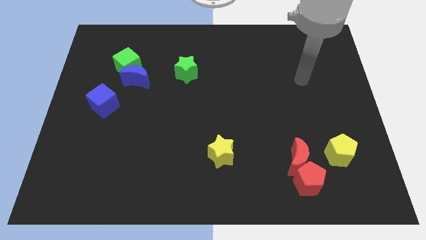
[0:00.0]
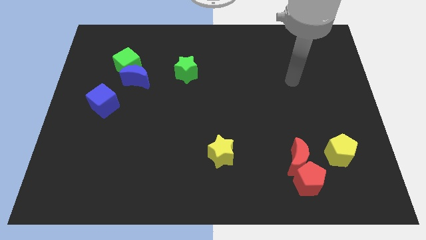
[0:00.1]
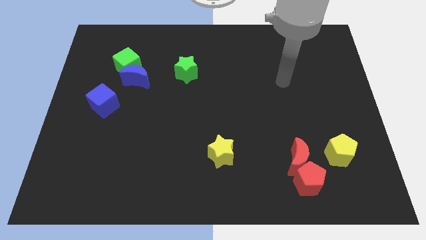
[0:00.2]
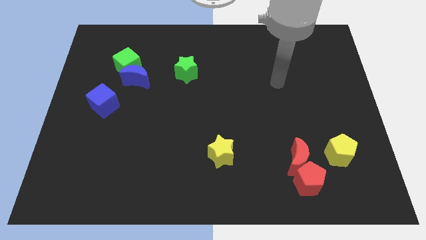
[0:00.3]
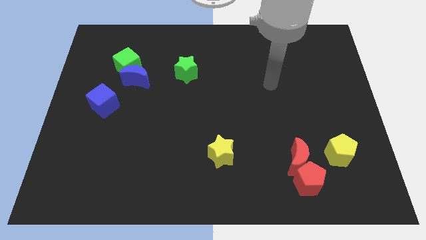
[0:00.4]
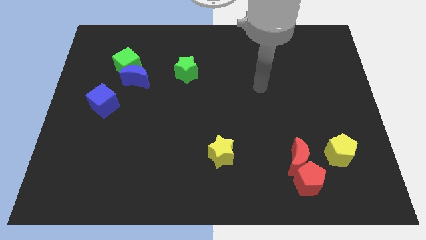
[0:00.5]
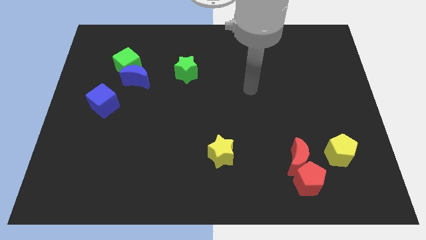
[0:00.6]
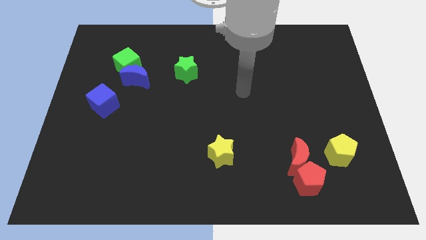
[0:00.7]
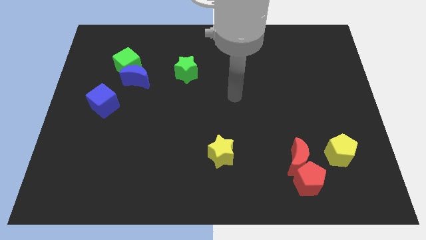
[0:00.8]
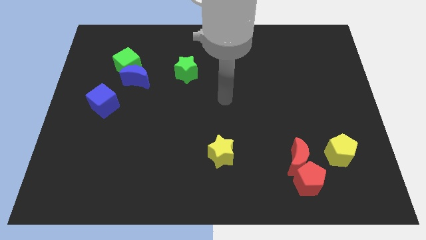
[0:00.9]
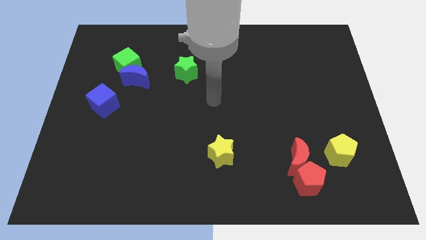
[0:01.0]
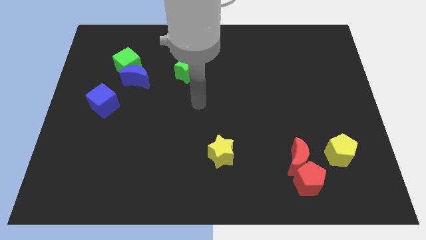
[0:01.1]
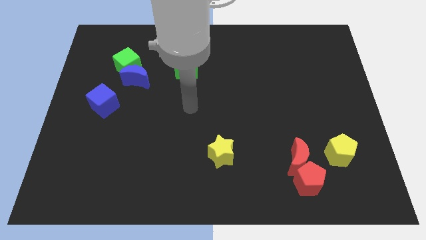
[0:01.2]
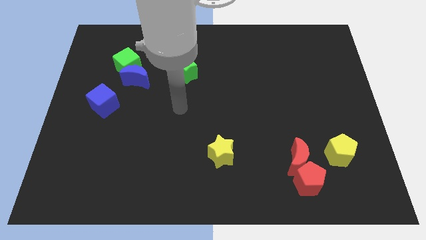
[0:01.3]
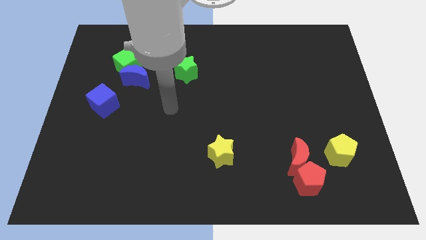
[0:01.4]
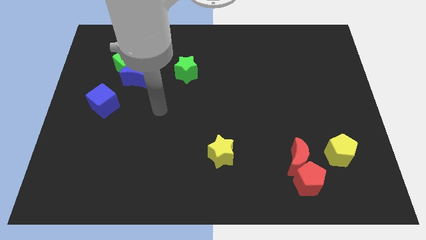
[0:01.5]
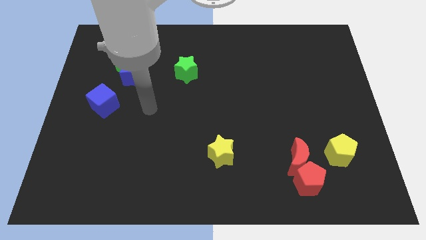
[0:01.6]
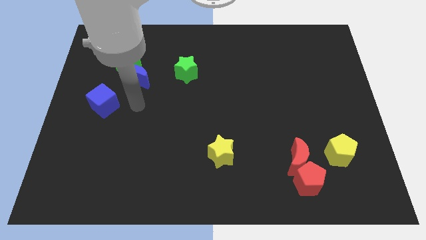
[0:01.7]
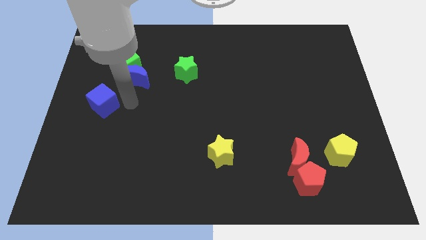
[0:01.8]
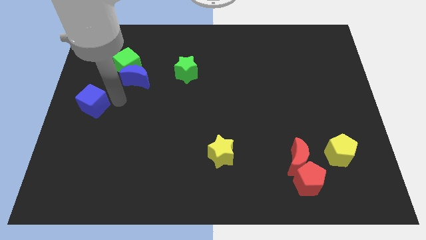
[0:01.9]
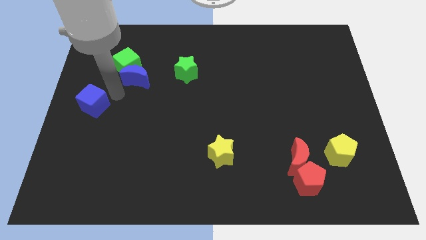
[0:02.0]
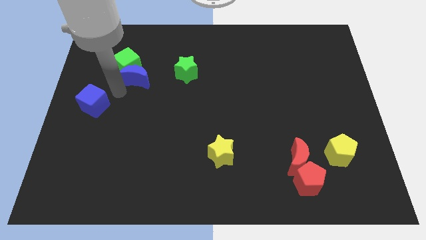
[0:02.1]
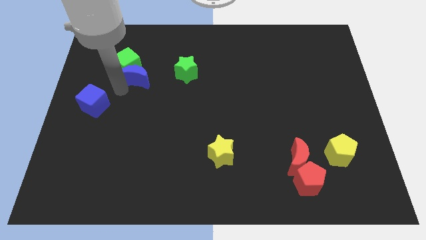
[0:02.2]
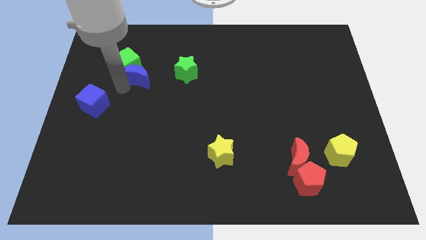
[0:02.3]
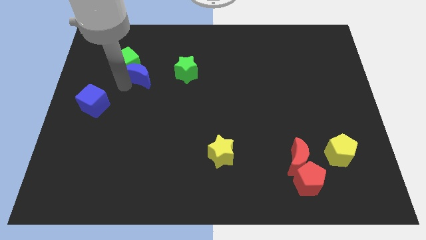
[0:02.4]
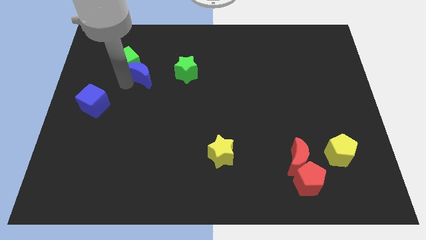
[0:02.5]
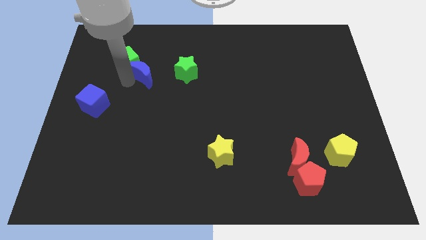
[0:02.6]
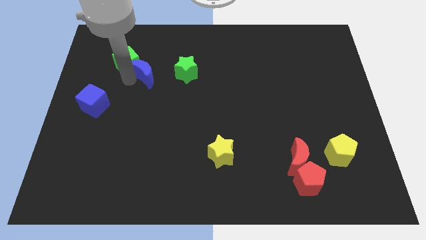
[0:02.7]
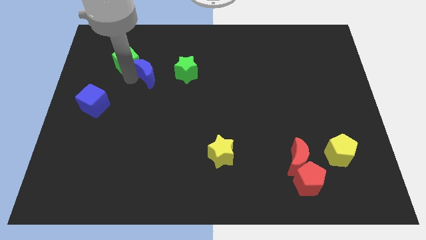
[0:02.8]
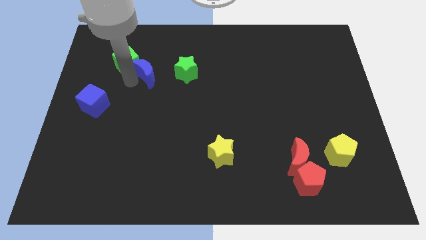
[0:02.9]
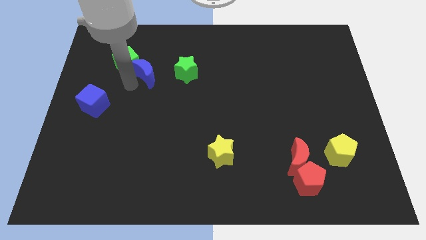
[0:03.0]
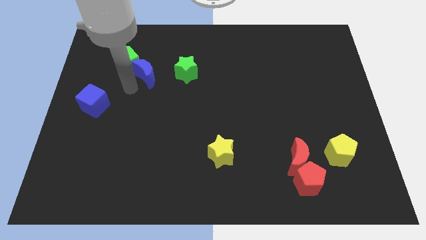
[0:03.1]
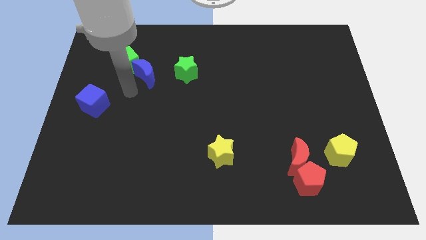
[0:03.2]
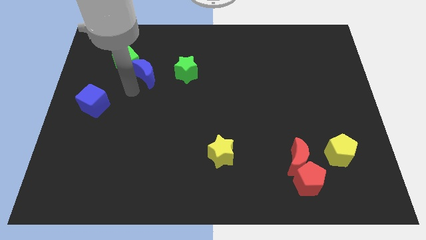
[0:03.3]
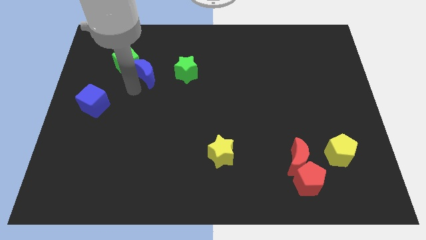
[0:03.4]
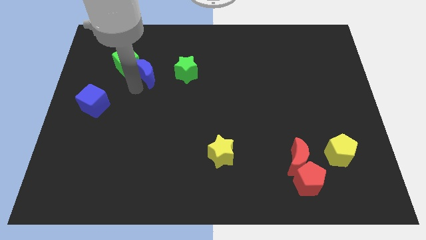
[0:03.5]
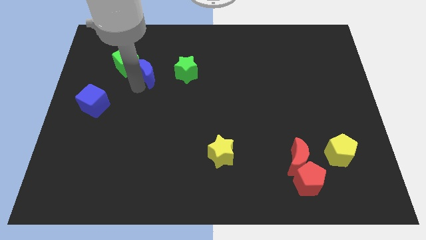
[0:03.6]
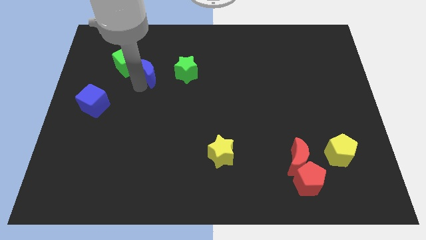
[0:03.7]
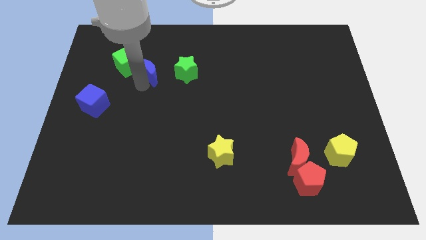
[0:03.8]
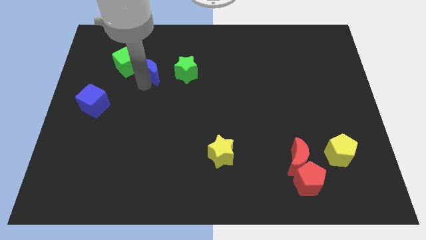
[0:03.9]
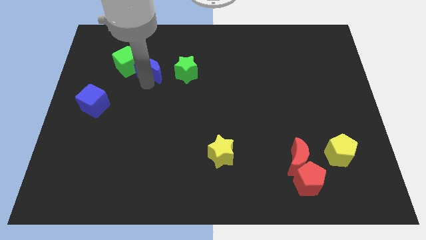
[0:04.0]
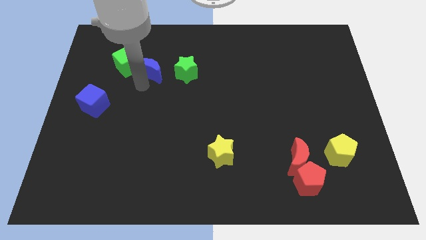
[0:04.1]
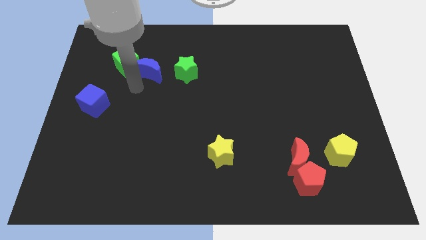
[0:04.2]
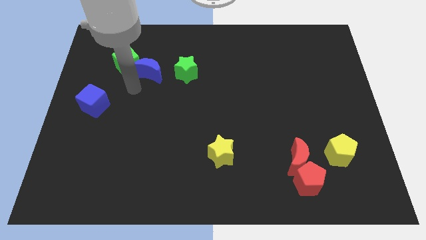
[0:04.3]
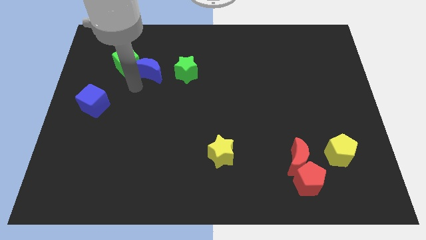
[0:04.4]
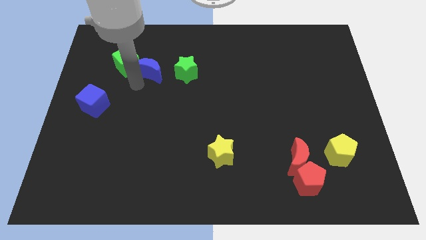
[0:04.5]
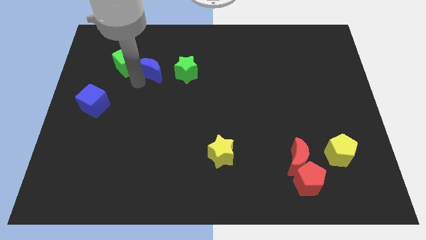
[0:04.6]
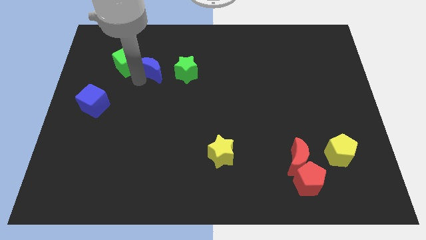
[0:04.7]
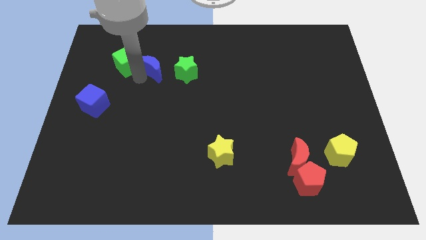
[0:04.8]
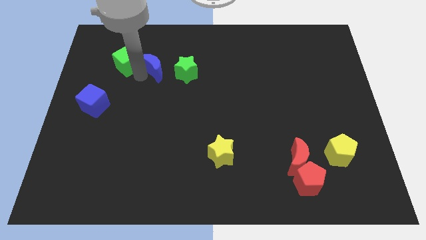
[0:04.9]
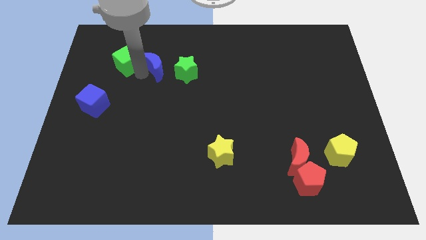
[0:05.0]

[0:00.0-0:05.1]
move the blue moon diagonally up and to the left of the green star

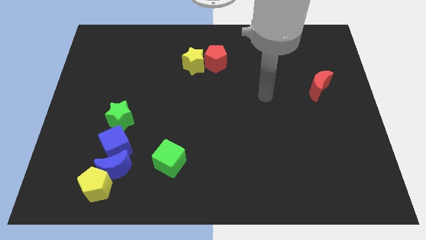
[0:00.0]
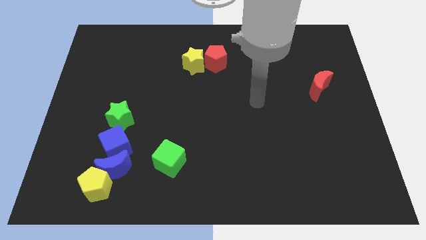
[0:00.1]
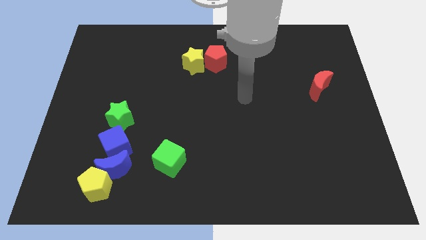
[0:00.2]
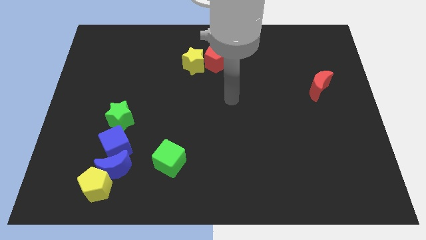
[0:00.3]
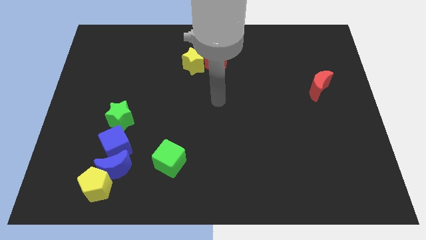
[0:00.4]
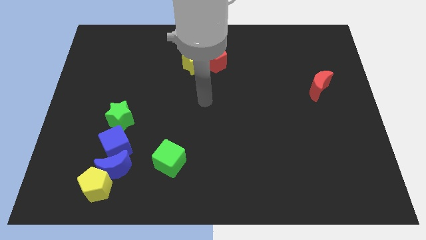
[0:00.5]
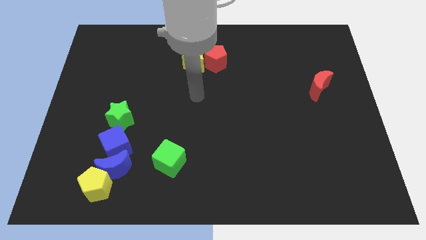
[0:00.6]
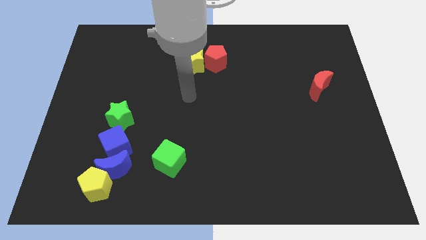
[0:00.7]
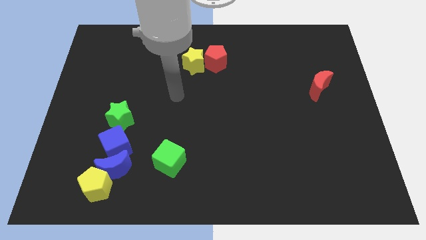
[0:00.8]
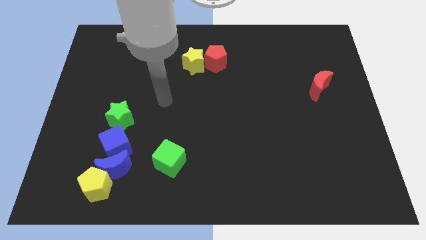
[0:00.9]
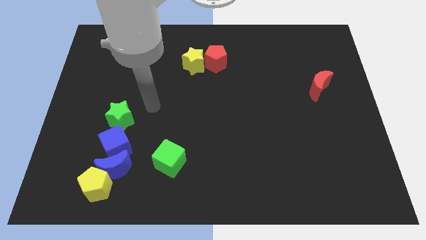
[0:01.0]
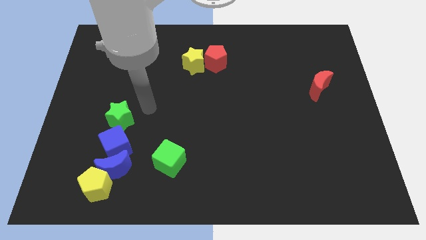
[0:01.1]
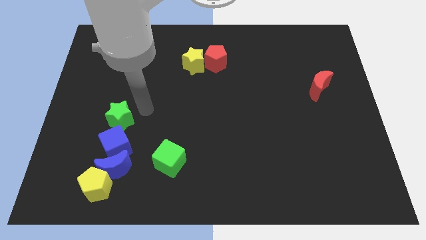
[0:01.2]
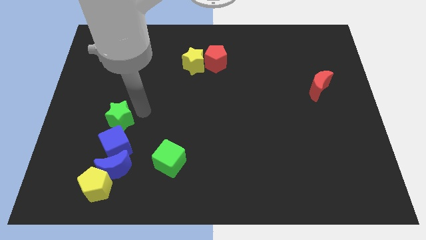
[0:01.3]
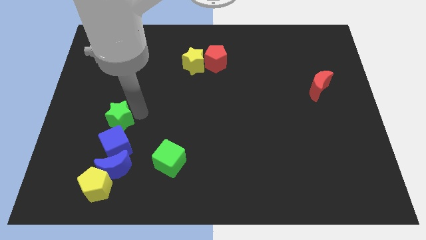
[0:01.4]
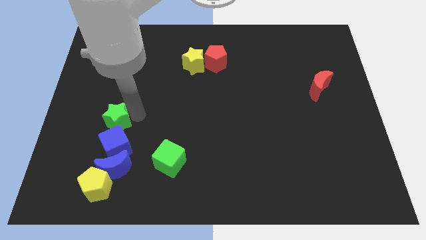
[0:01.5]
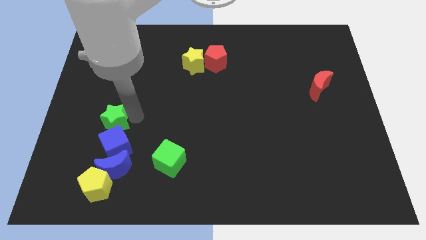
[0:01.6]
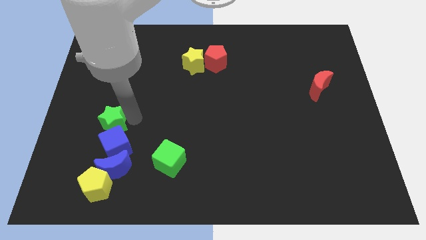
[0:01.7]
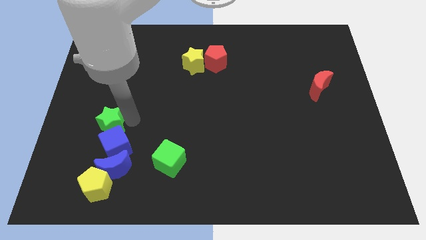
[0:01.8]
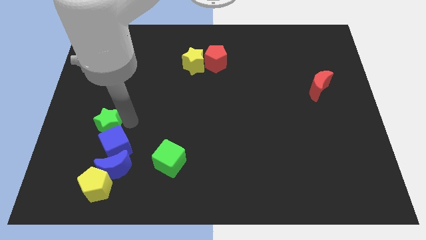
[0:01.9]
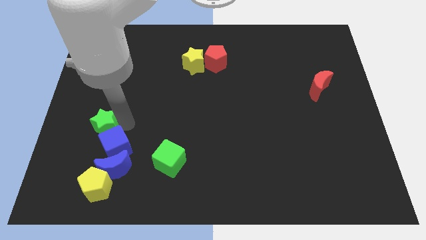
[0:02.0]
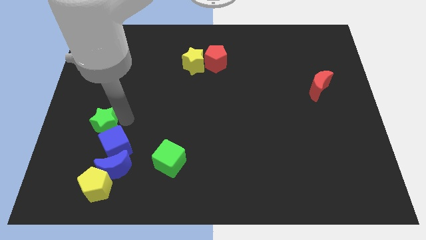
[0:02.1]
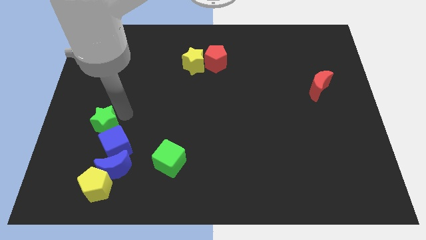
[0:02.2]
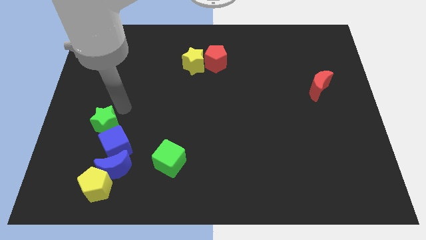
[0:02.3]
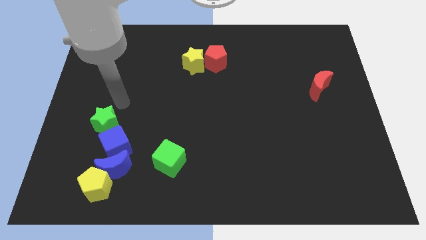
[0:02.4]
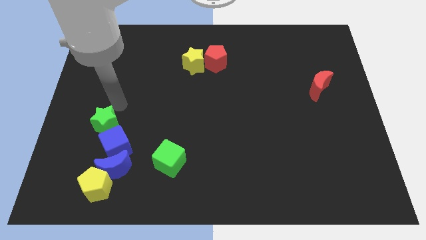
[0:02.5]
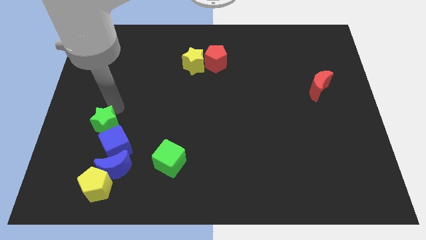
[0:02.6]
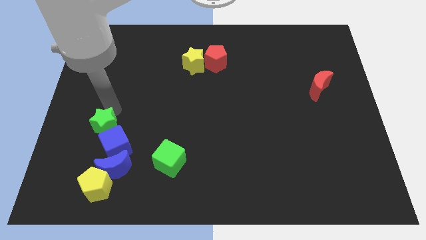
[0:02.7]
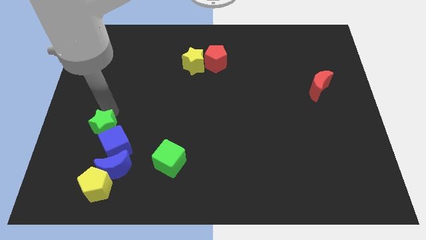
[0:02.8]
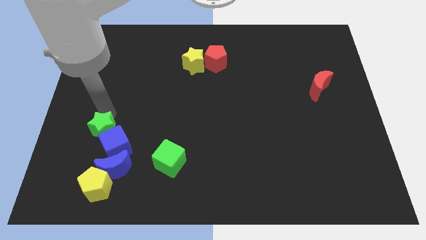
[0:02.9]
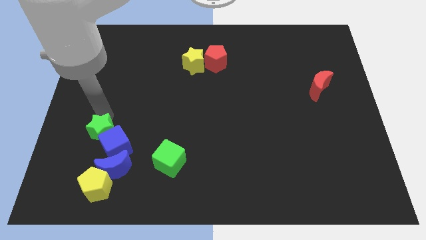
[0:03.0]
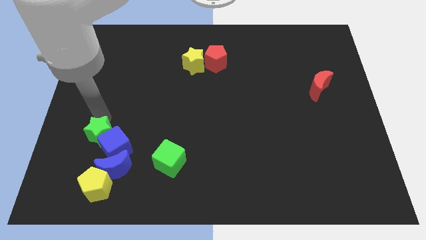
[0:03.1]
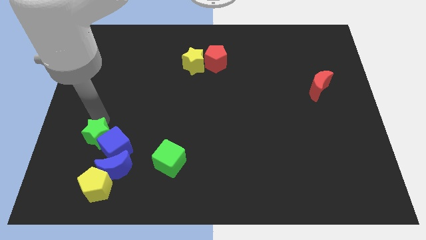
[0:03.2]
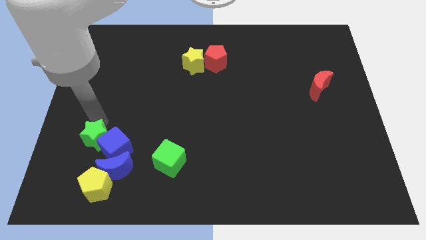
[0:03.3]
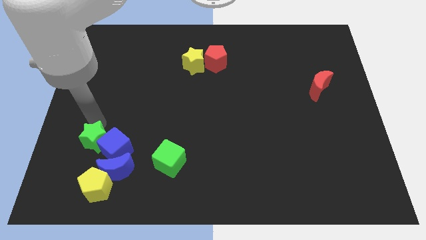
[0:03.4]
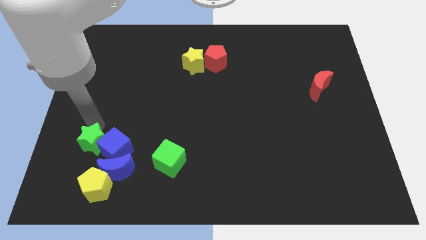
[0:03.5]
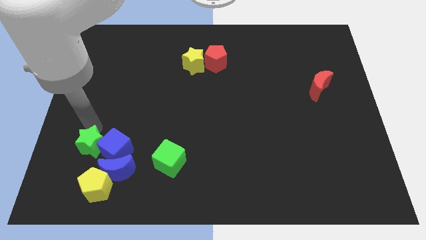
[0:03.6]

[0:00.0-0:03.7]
move the green star to the bottom left of the blue cube
